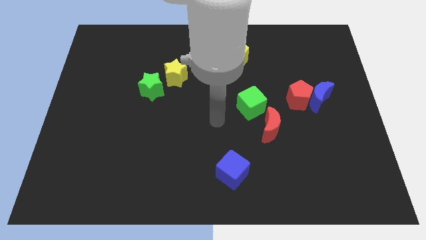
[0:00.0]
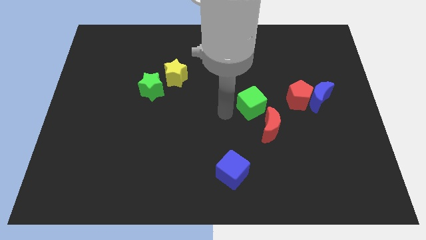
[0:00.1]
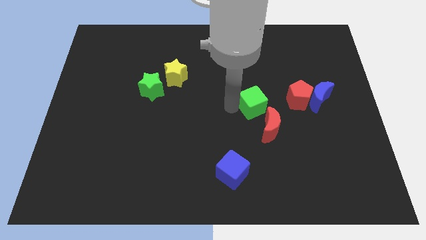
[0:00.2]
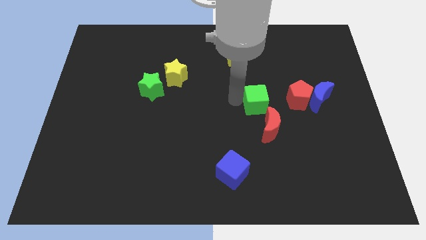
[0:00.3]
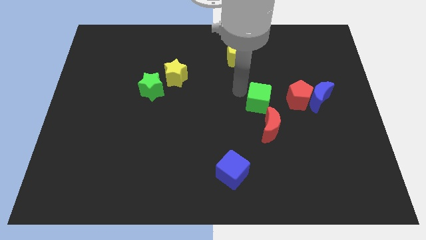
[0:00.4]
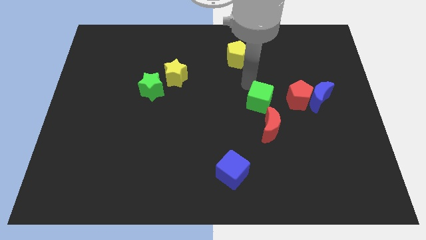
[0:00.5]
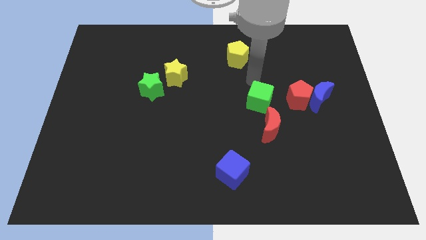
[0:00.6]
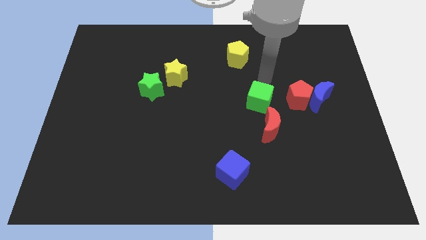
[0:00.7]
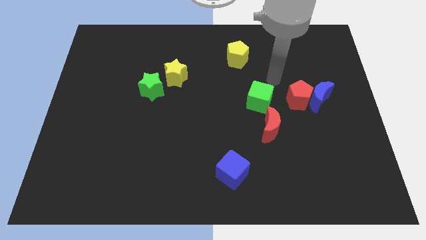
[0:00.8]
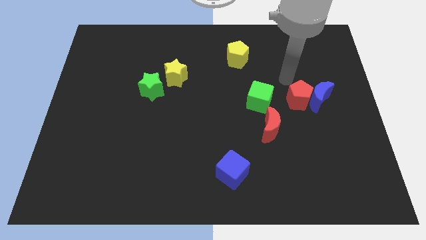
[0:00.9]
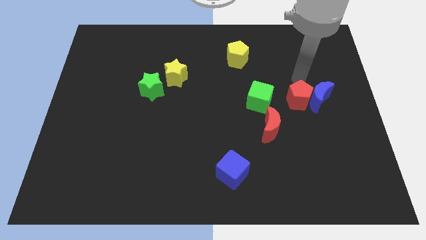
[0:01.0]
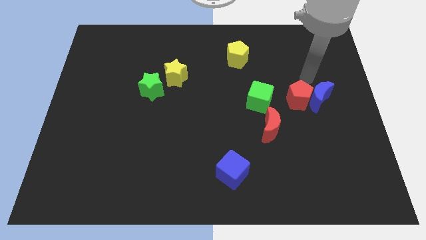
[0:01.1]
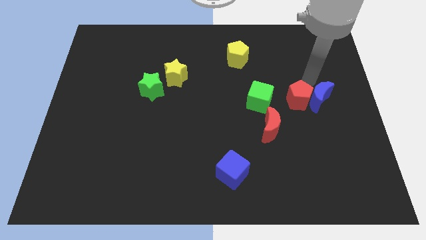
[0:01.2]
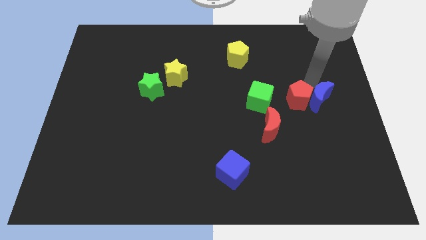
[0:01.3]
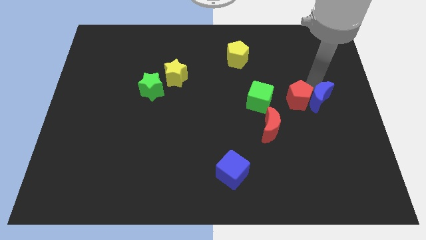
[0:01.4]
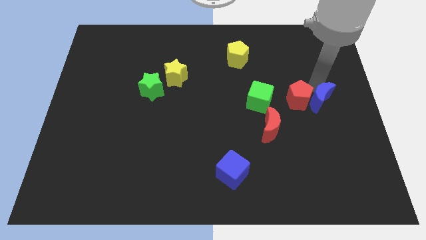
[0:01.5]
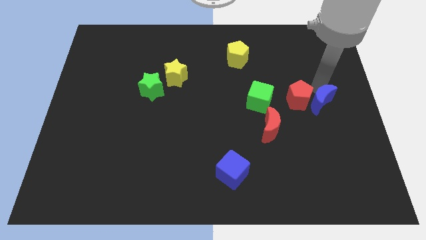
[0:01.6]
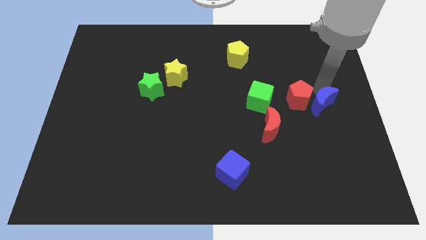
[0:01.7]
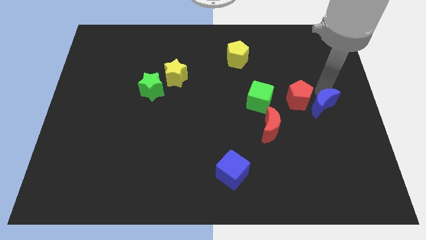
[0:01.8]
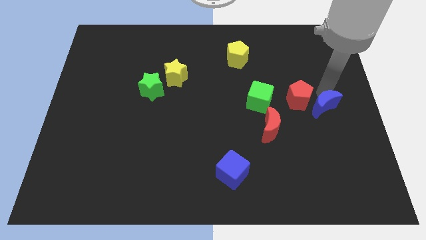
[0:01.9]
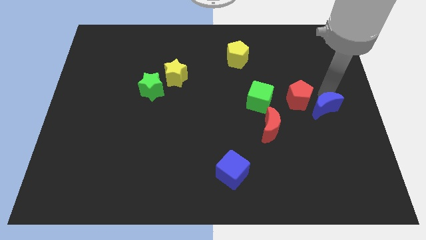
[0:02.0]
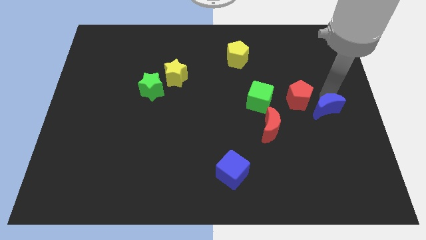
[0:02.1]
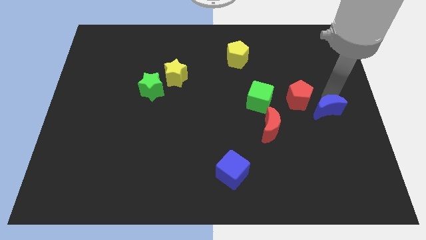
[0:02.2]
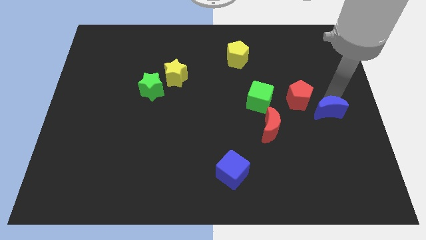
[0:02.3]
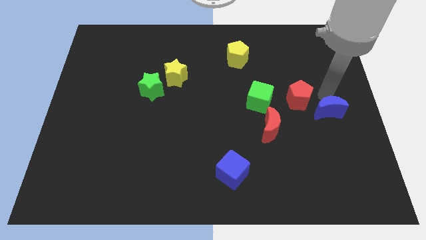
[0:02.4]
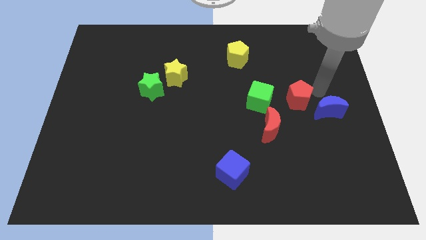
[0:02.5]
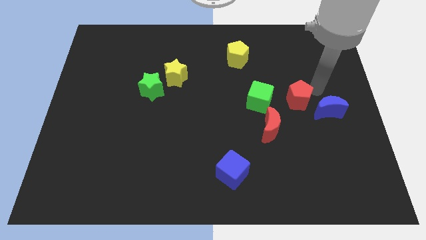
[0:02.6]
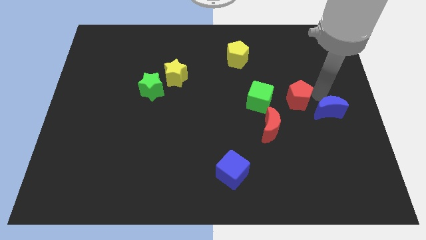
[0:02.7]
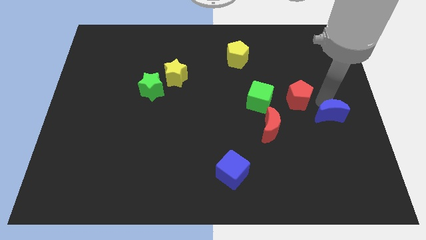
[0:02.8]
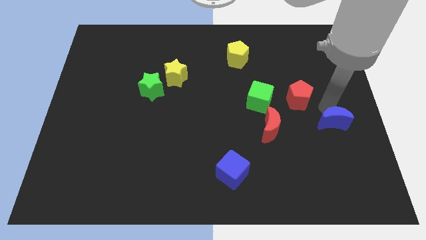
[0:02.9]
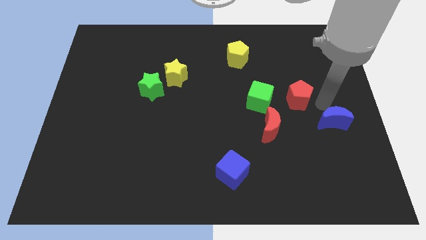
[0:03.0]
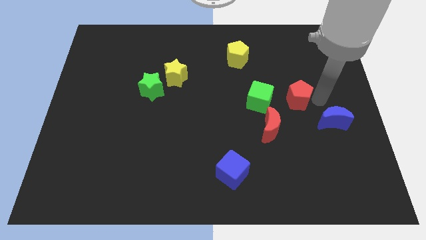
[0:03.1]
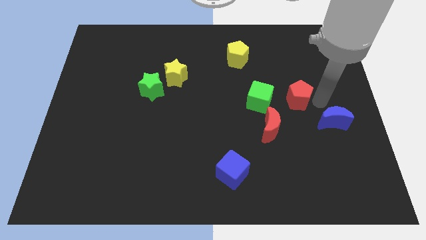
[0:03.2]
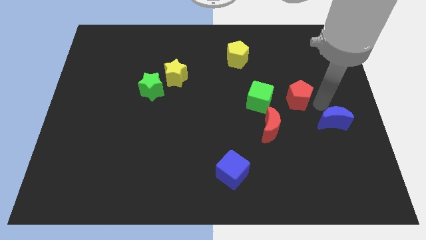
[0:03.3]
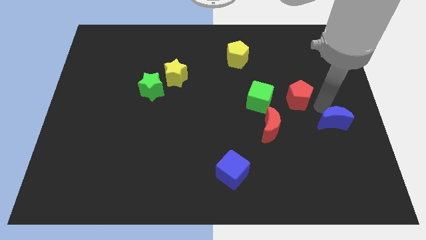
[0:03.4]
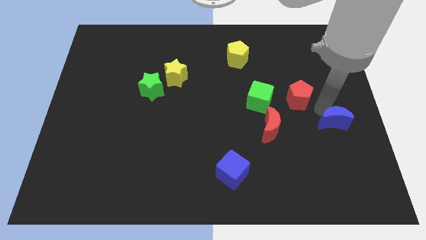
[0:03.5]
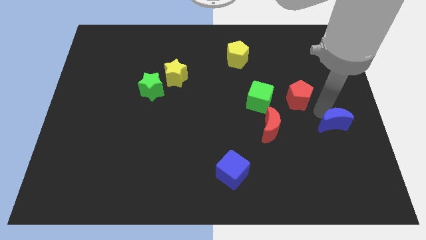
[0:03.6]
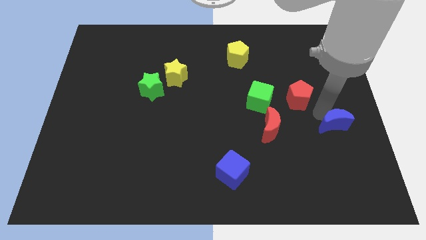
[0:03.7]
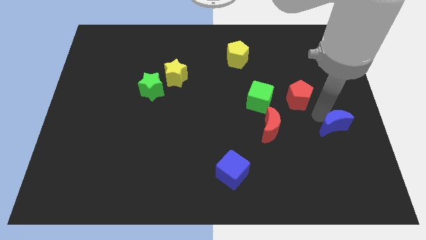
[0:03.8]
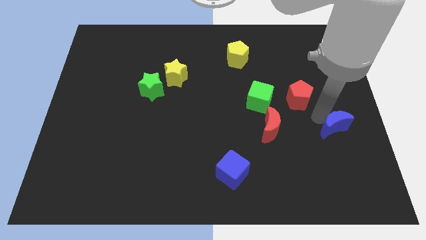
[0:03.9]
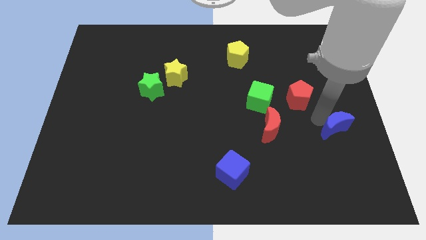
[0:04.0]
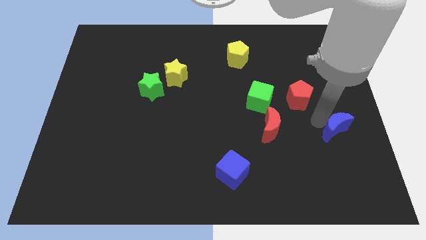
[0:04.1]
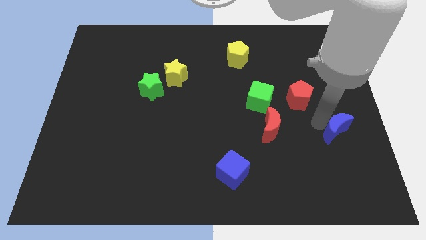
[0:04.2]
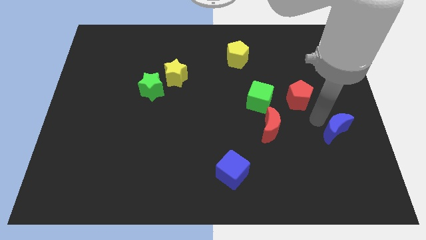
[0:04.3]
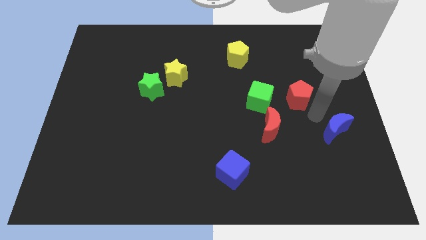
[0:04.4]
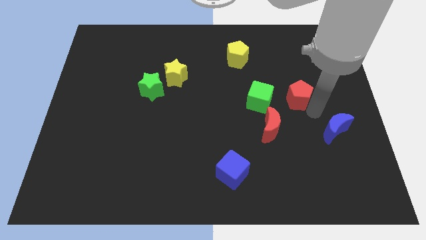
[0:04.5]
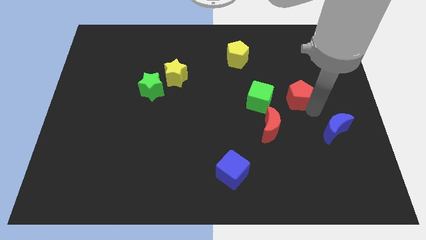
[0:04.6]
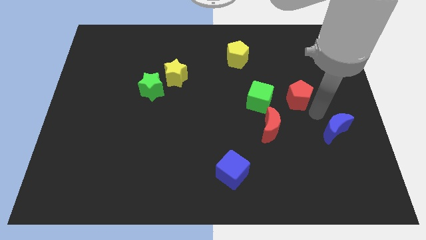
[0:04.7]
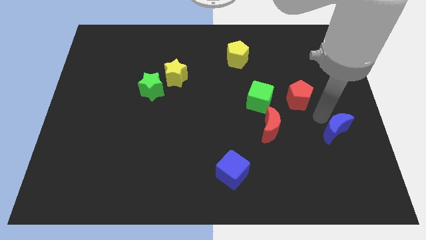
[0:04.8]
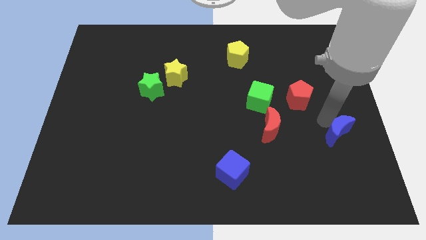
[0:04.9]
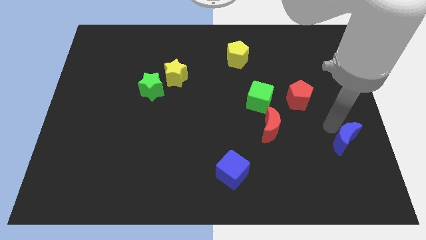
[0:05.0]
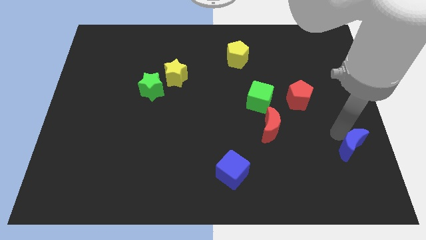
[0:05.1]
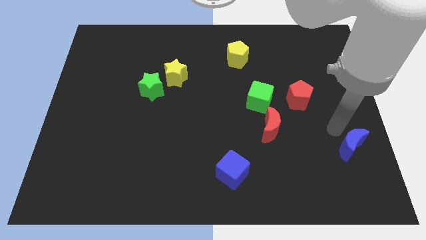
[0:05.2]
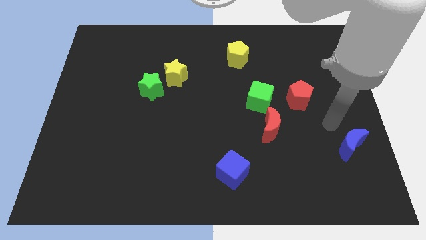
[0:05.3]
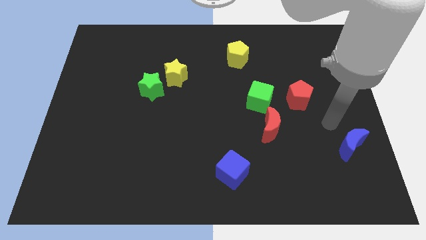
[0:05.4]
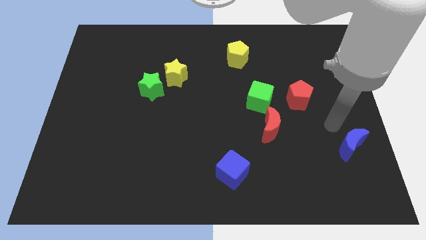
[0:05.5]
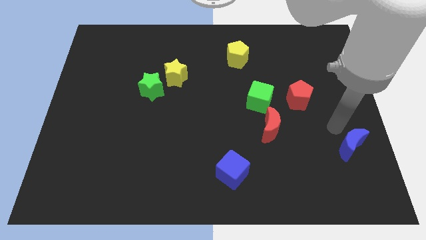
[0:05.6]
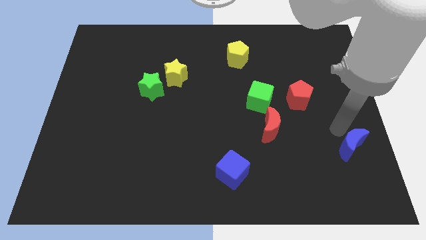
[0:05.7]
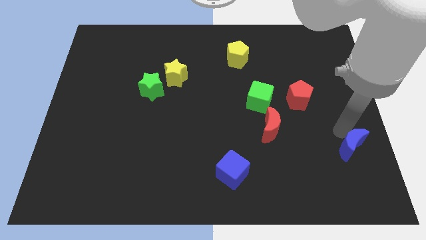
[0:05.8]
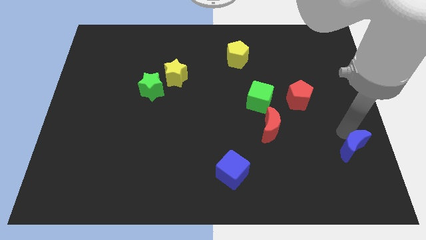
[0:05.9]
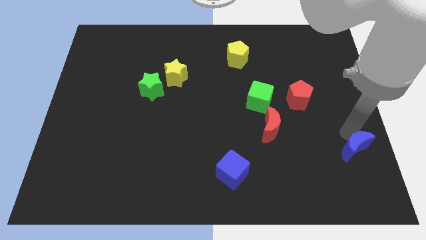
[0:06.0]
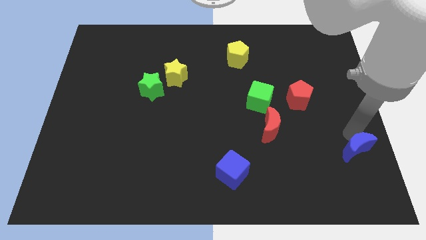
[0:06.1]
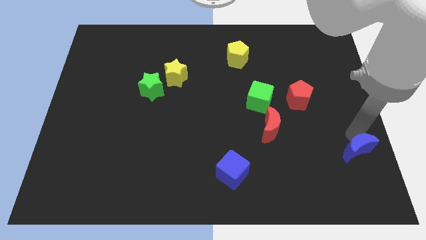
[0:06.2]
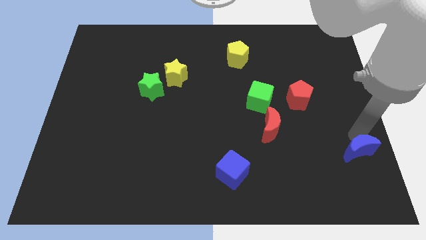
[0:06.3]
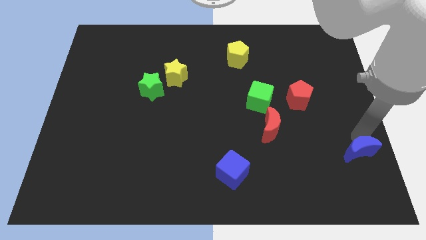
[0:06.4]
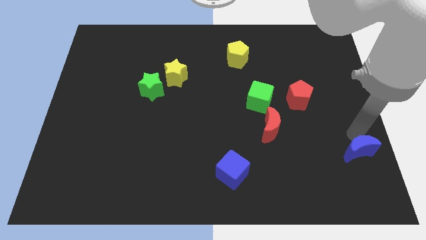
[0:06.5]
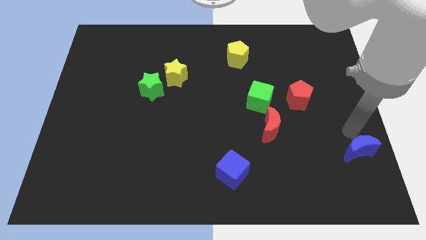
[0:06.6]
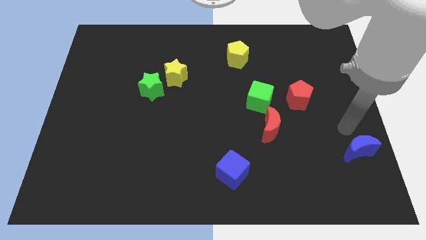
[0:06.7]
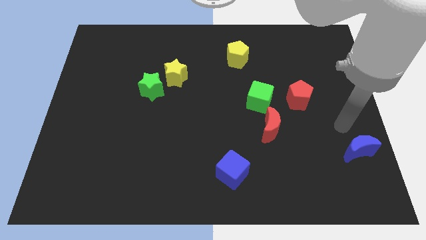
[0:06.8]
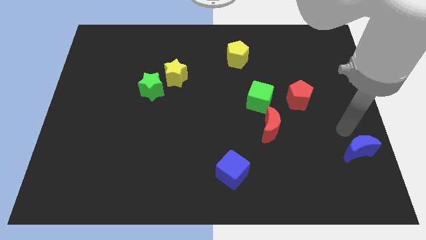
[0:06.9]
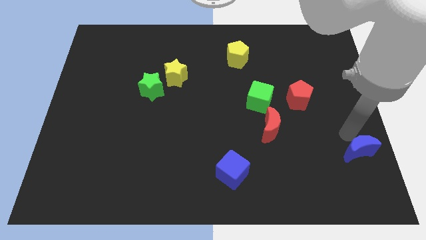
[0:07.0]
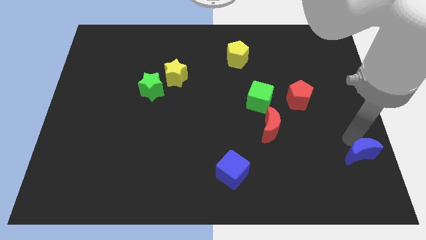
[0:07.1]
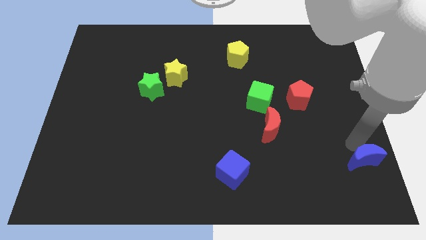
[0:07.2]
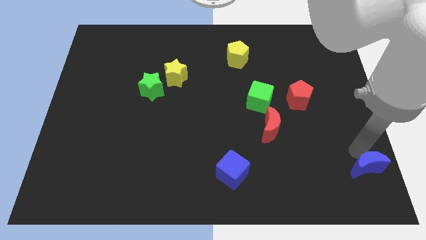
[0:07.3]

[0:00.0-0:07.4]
move the blue moon to the lower right corner
